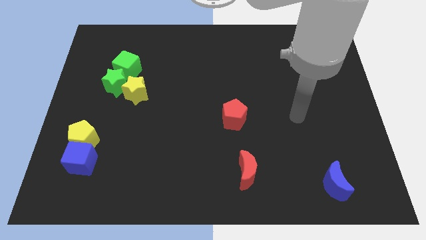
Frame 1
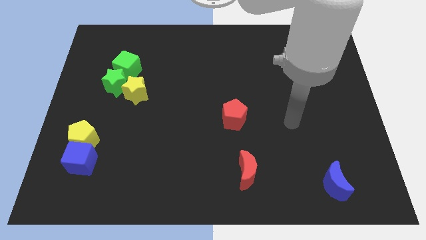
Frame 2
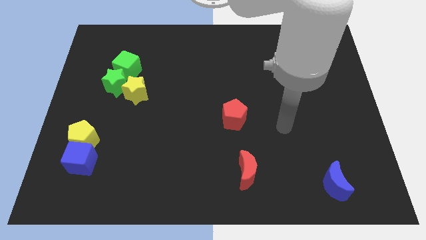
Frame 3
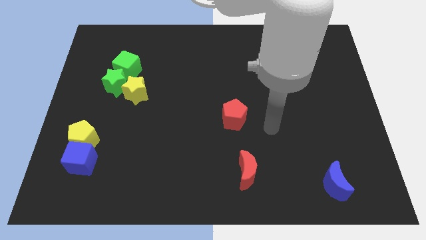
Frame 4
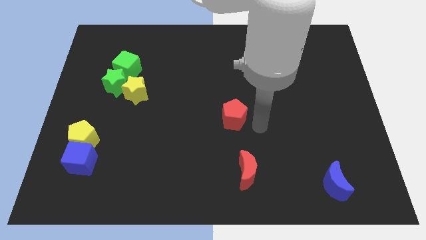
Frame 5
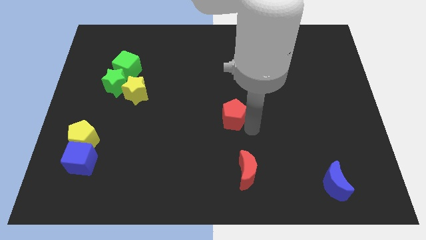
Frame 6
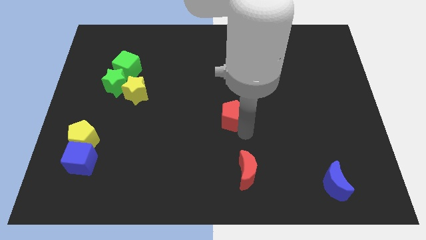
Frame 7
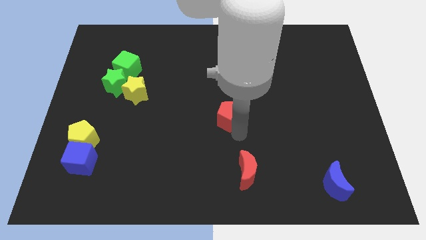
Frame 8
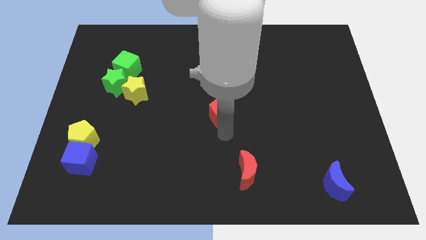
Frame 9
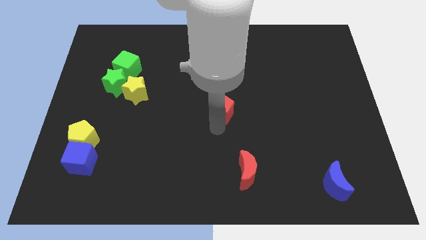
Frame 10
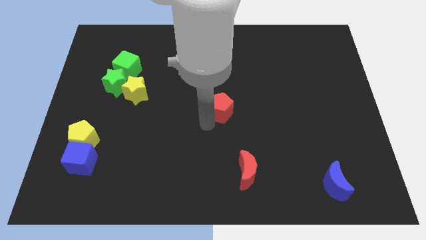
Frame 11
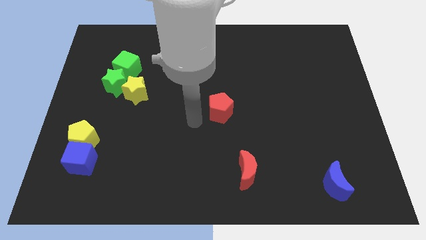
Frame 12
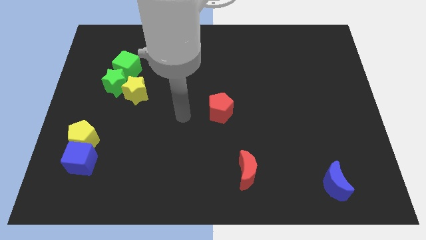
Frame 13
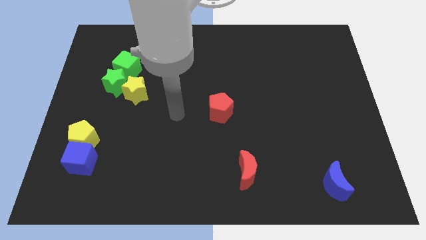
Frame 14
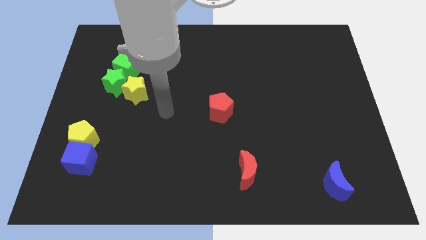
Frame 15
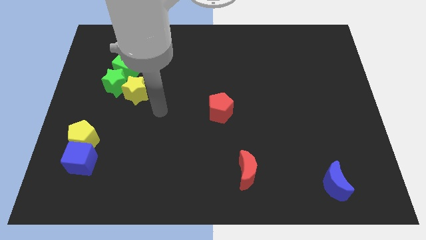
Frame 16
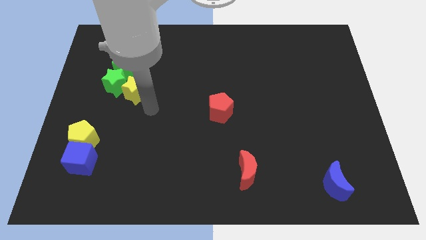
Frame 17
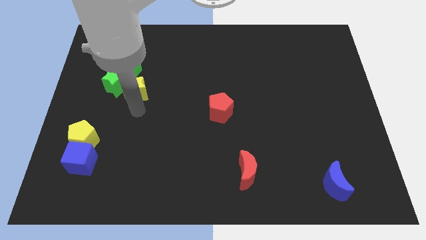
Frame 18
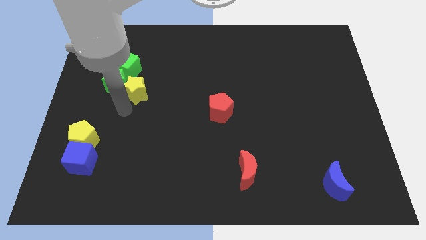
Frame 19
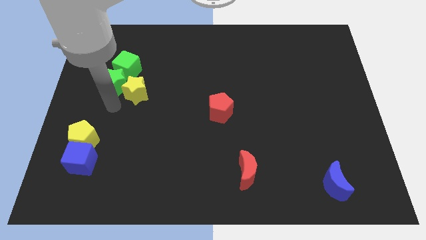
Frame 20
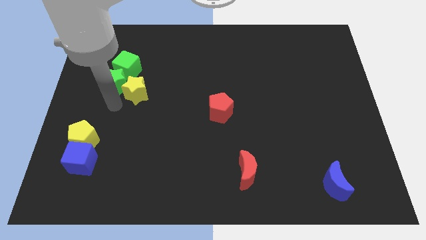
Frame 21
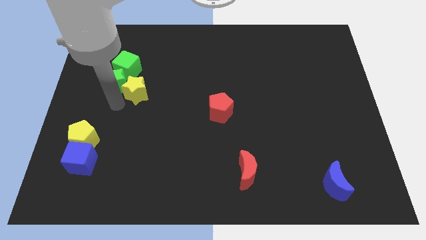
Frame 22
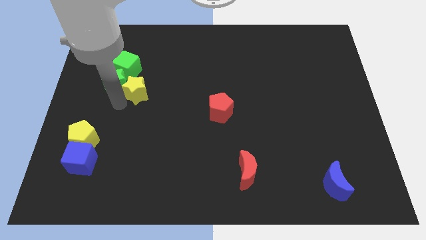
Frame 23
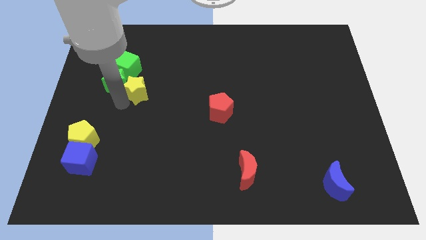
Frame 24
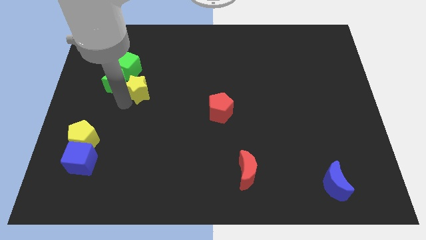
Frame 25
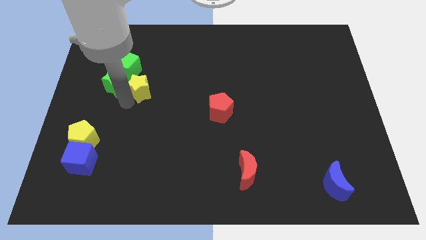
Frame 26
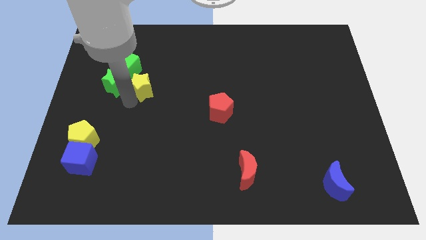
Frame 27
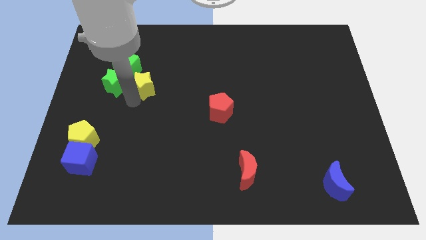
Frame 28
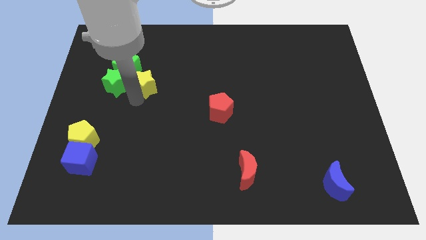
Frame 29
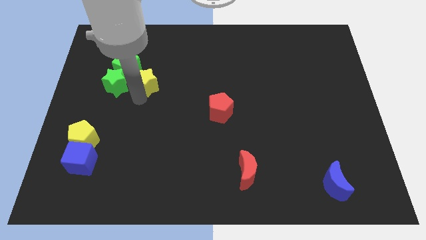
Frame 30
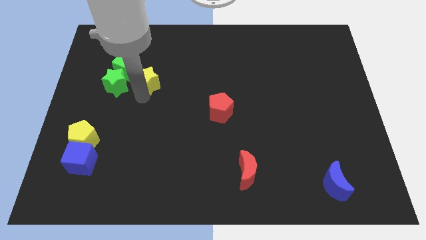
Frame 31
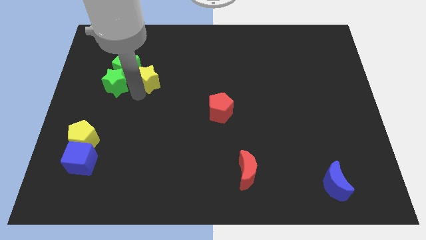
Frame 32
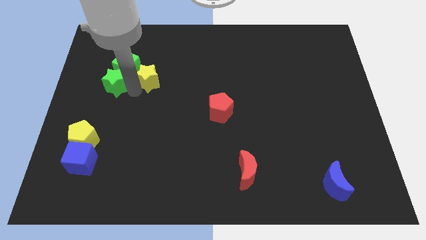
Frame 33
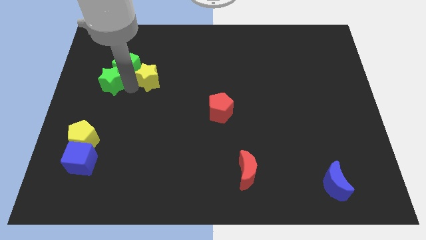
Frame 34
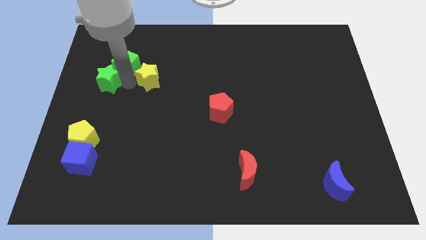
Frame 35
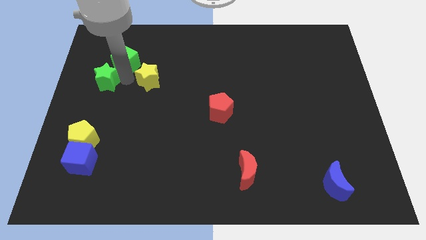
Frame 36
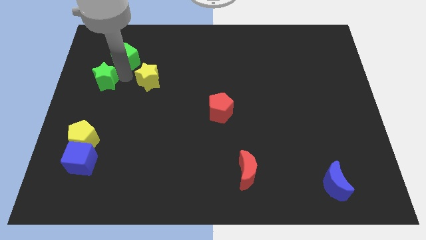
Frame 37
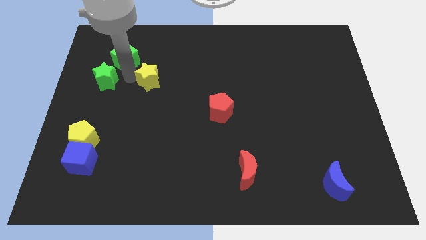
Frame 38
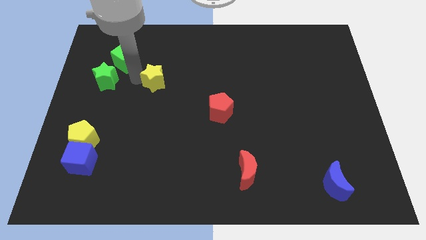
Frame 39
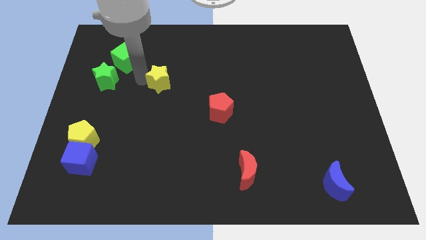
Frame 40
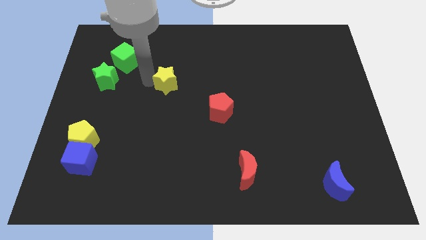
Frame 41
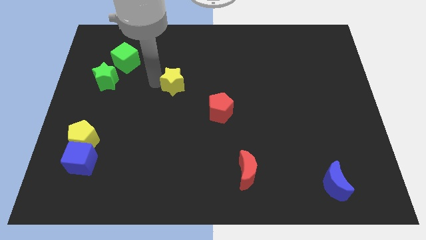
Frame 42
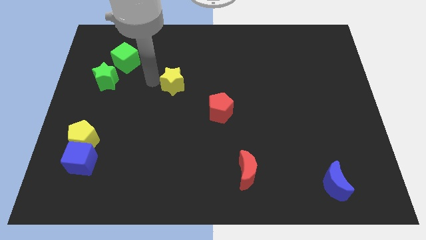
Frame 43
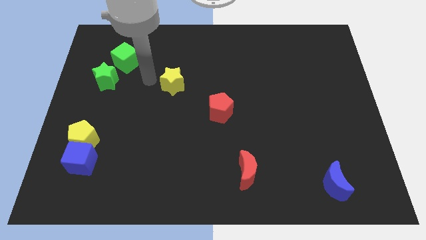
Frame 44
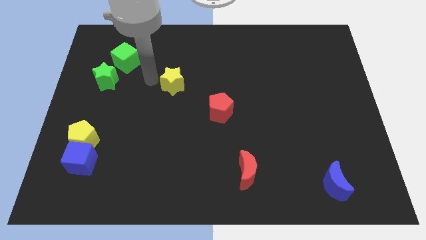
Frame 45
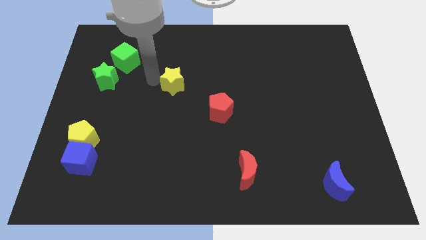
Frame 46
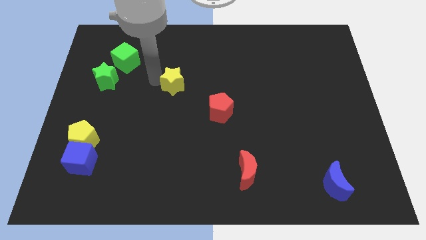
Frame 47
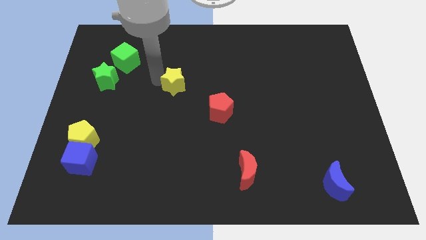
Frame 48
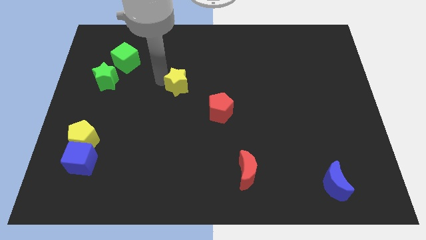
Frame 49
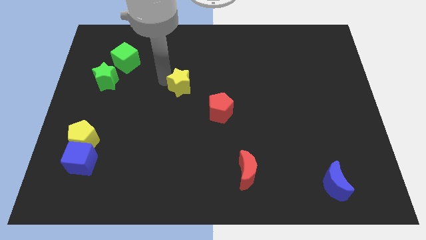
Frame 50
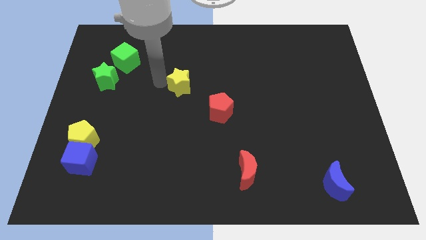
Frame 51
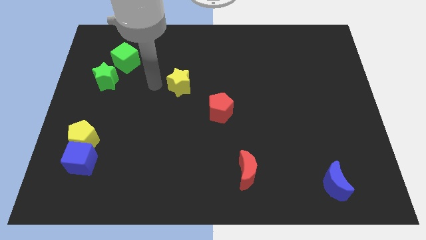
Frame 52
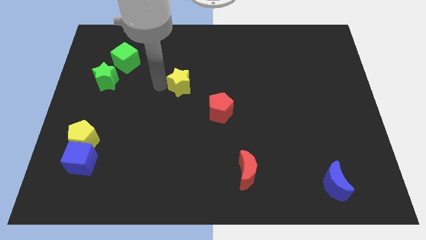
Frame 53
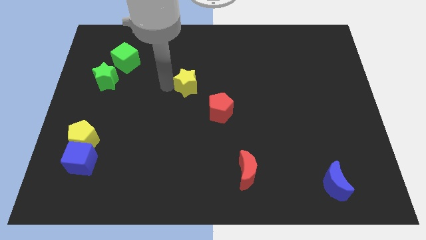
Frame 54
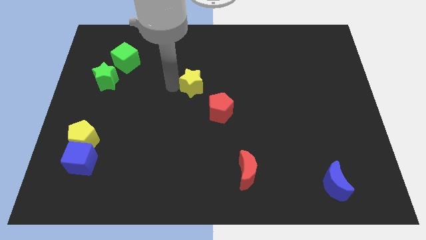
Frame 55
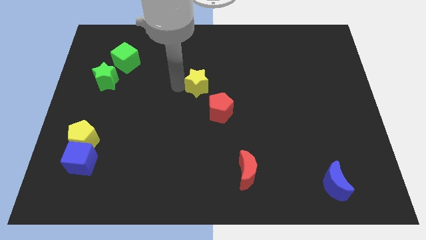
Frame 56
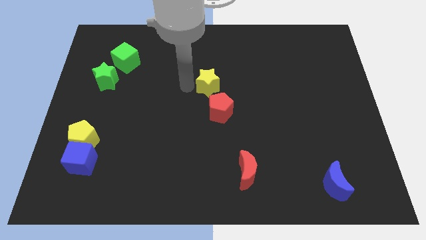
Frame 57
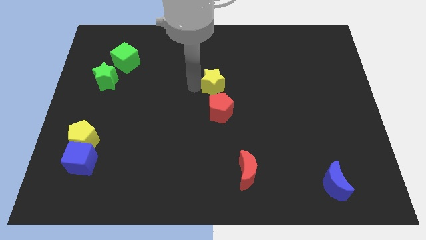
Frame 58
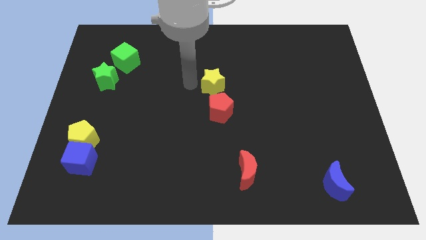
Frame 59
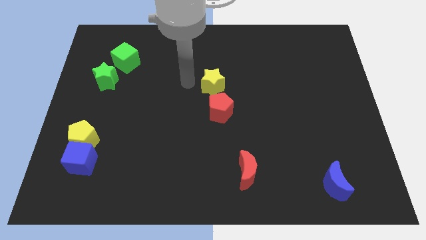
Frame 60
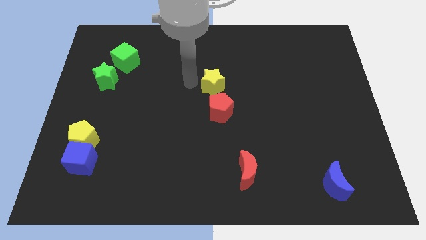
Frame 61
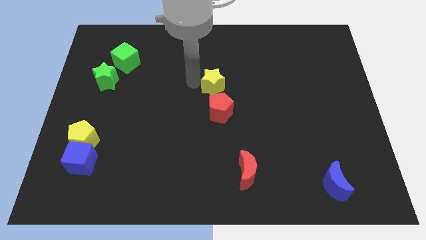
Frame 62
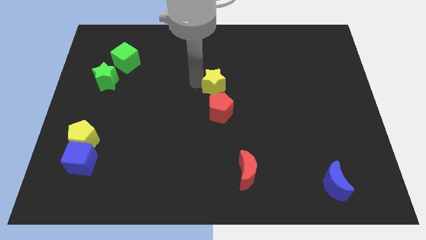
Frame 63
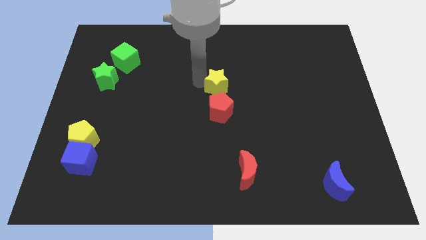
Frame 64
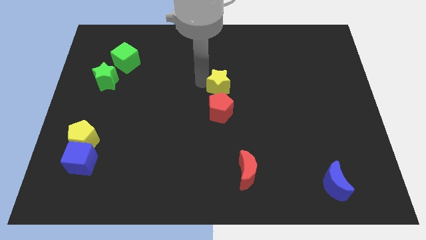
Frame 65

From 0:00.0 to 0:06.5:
push the yellow star to the right

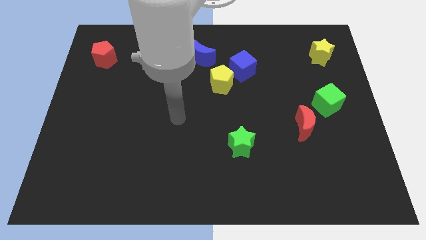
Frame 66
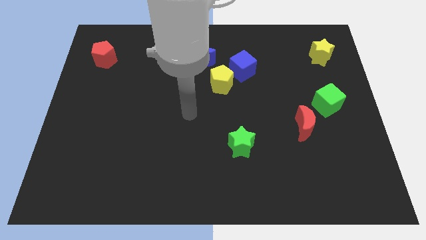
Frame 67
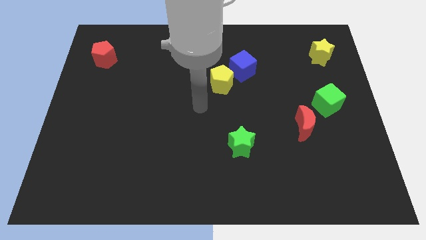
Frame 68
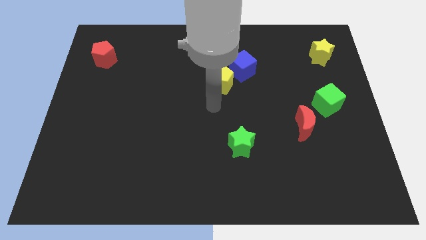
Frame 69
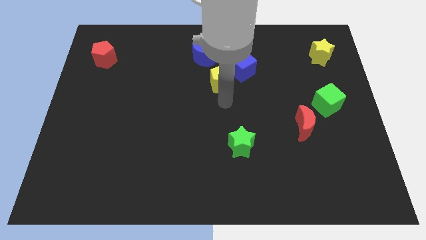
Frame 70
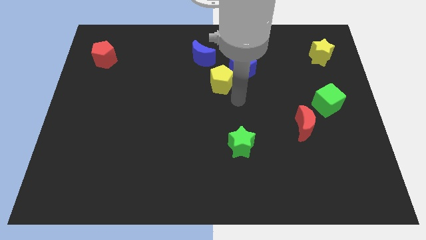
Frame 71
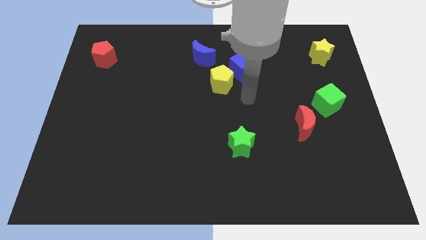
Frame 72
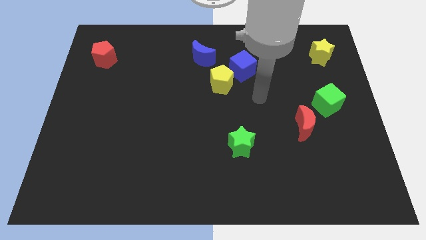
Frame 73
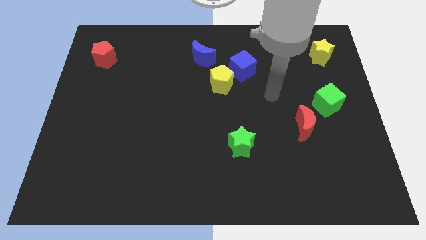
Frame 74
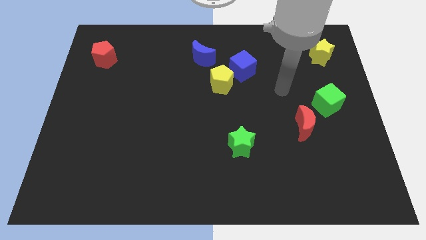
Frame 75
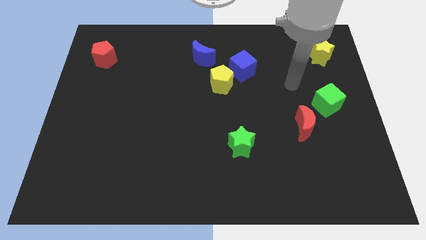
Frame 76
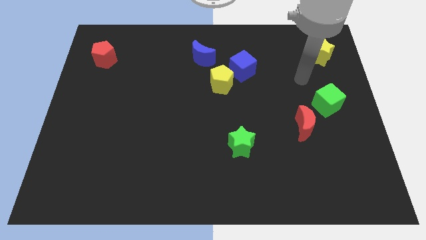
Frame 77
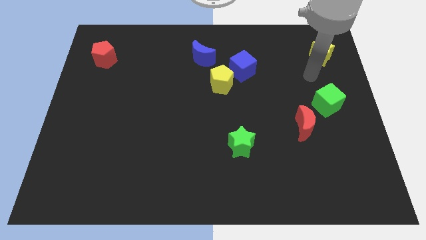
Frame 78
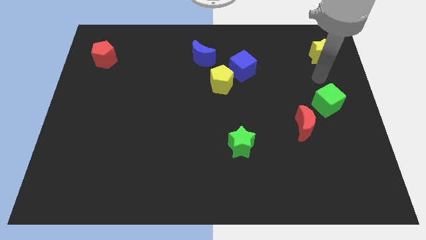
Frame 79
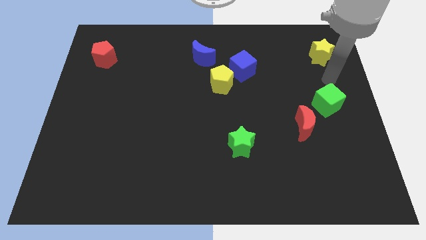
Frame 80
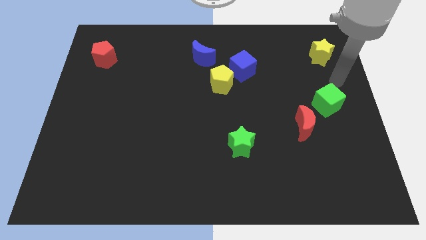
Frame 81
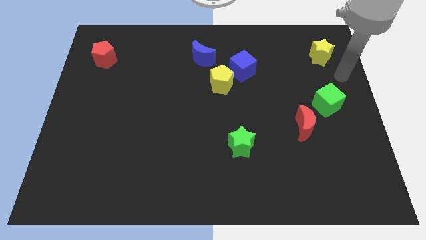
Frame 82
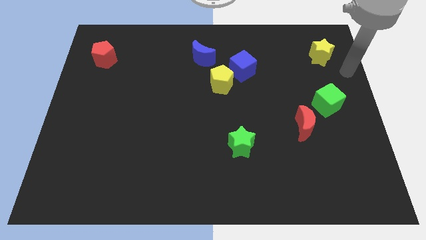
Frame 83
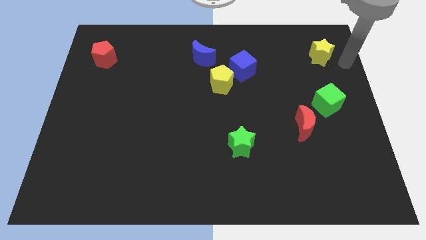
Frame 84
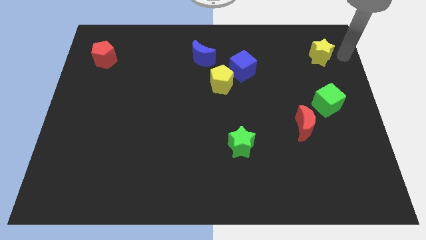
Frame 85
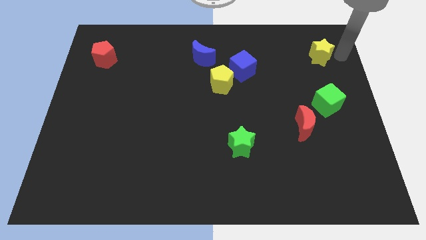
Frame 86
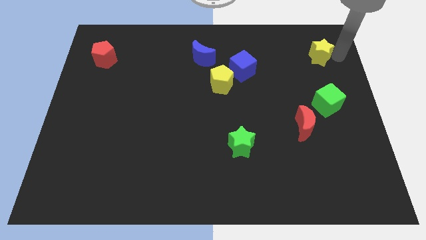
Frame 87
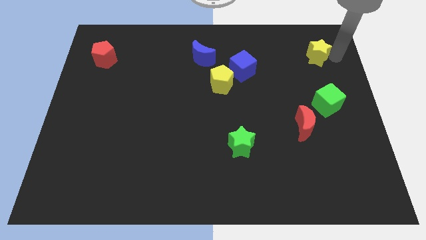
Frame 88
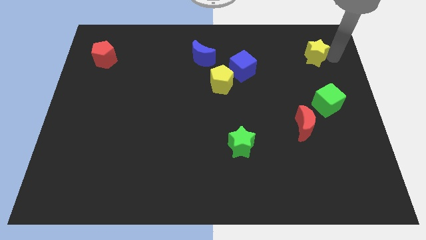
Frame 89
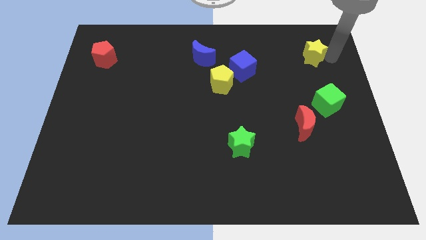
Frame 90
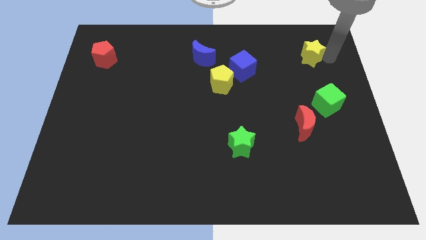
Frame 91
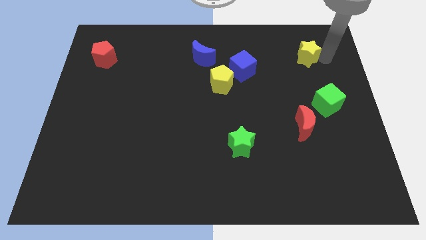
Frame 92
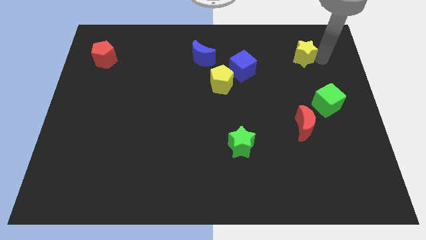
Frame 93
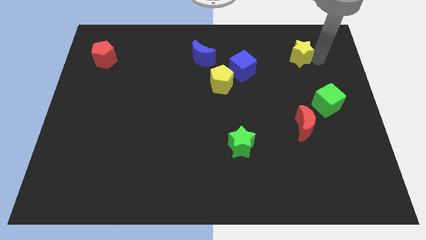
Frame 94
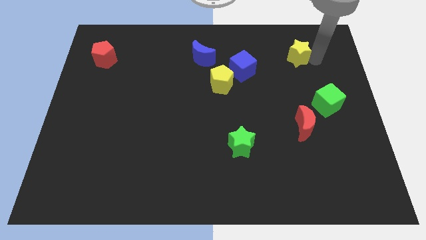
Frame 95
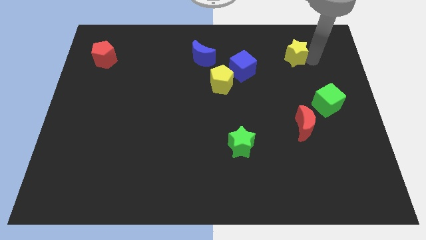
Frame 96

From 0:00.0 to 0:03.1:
slide the yellow star left somewhat
